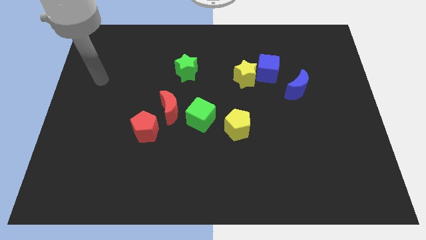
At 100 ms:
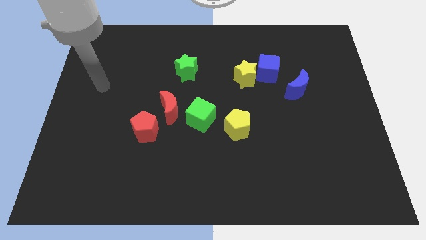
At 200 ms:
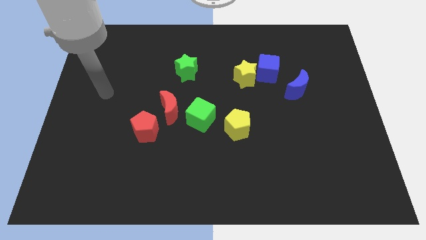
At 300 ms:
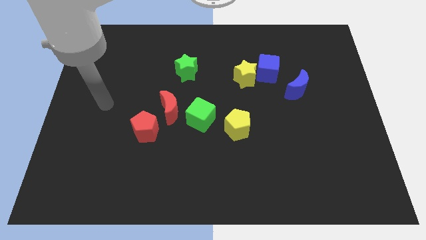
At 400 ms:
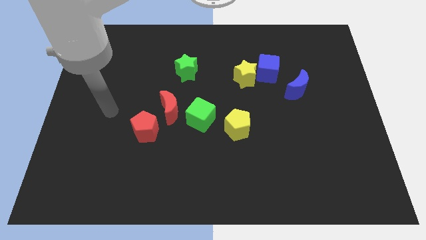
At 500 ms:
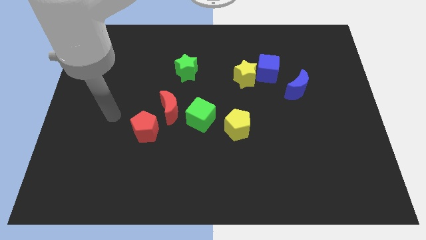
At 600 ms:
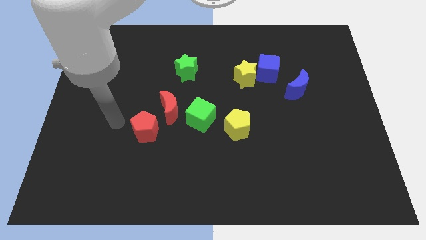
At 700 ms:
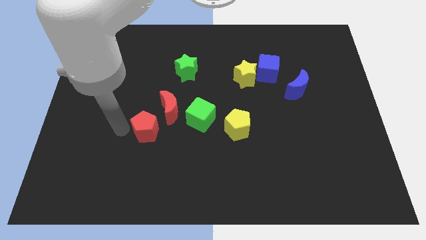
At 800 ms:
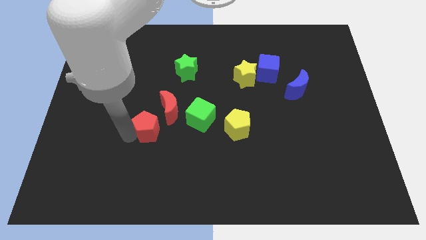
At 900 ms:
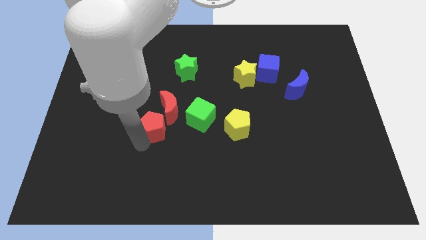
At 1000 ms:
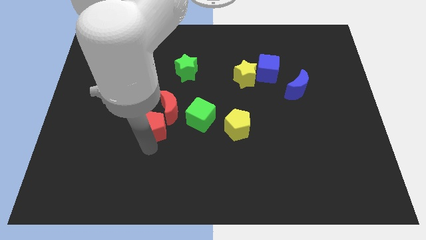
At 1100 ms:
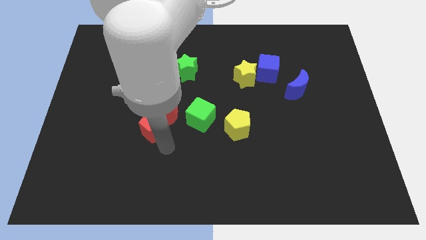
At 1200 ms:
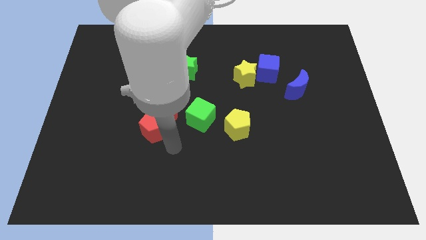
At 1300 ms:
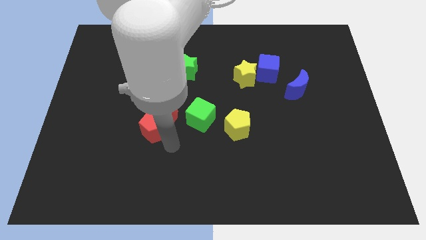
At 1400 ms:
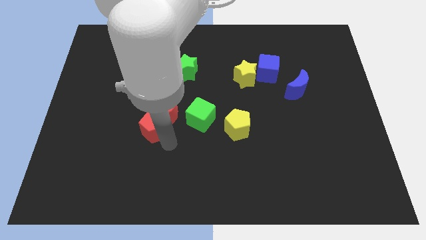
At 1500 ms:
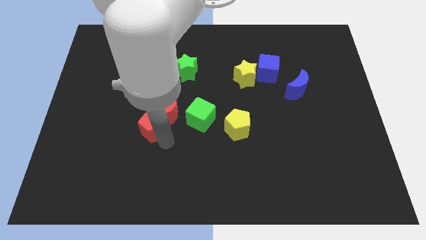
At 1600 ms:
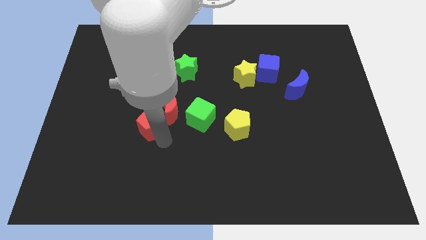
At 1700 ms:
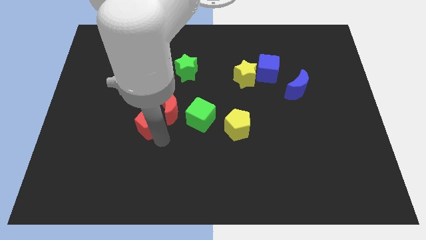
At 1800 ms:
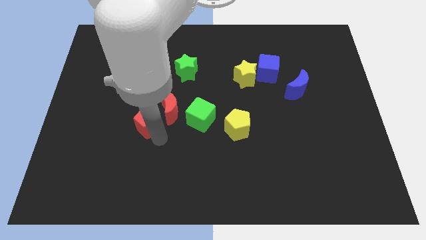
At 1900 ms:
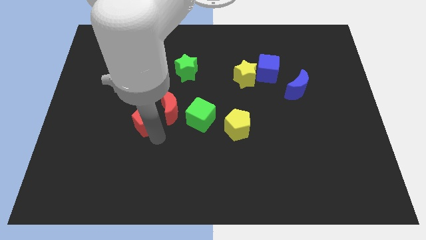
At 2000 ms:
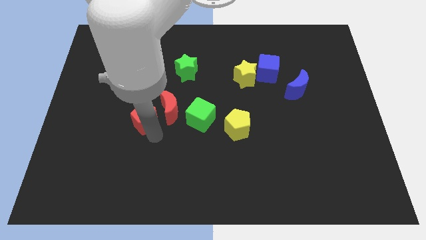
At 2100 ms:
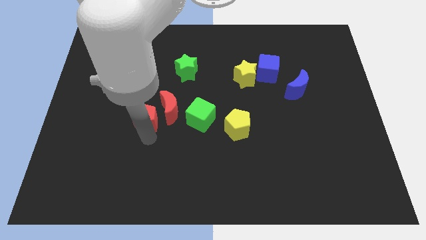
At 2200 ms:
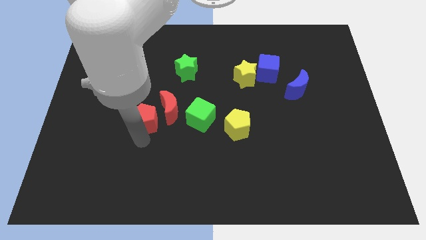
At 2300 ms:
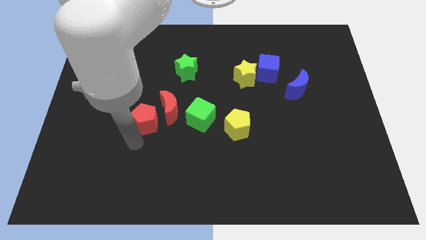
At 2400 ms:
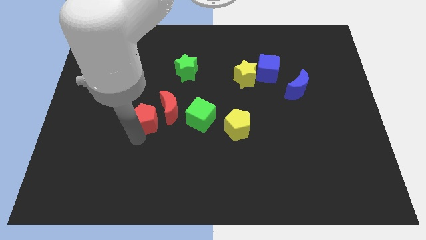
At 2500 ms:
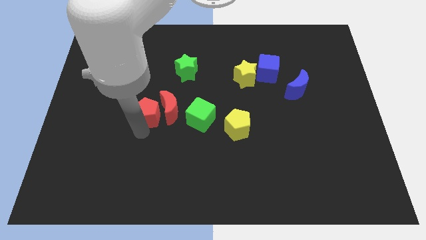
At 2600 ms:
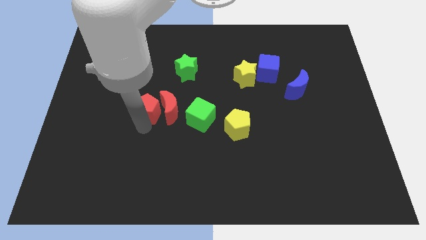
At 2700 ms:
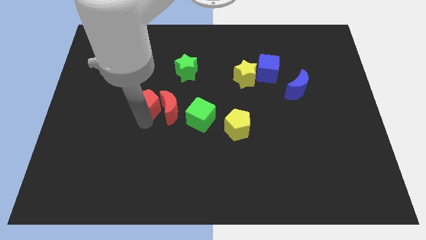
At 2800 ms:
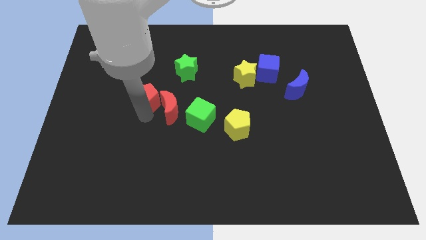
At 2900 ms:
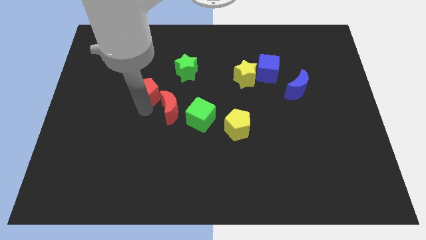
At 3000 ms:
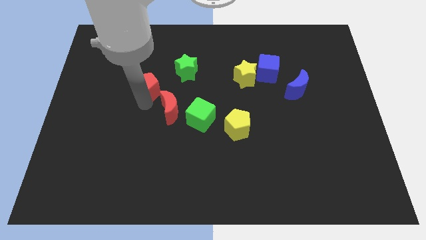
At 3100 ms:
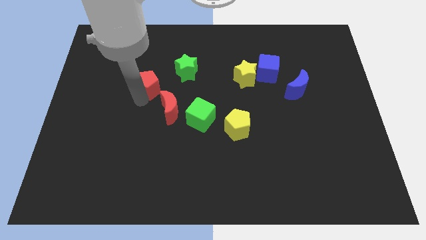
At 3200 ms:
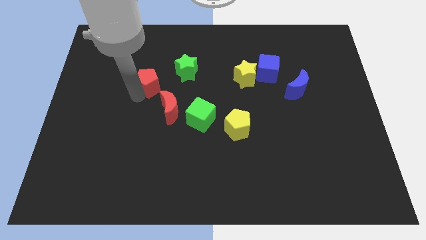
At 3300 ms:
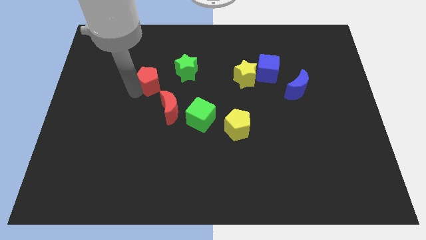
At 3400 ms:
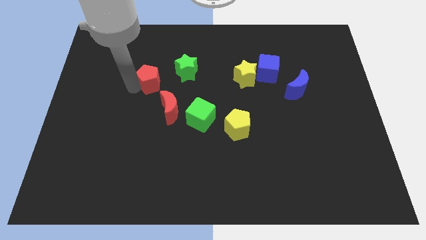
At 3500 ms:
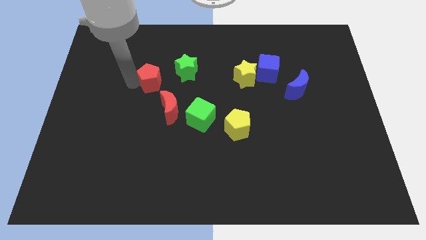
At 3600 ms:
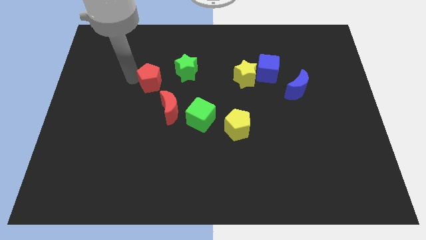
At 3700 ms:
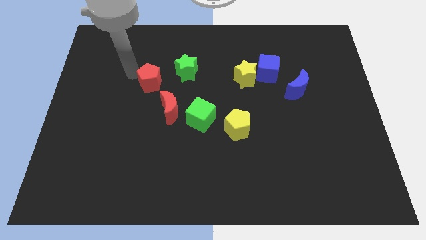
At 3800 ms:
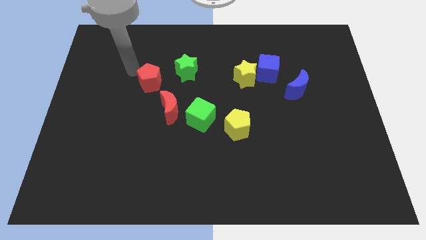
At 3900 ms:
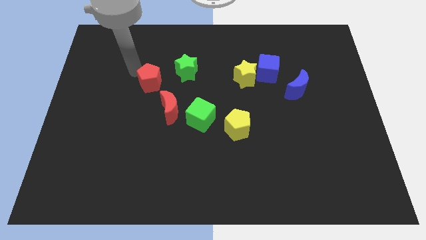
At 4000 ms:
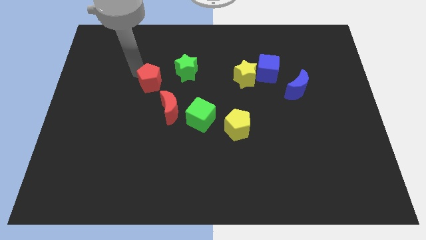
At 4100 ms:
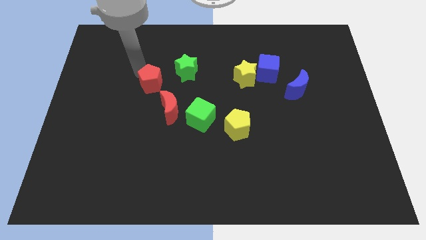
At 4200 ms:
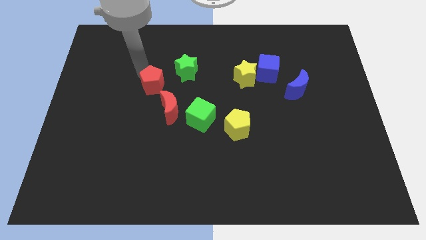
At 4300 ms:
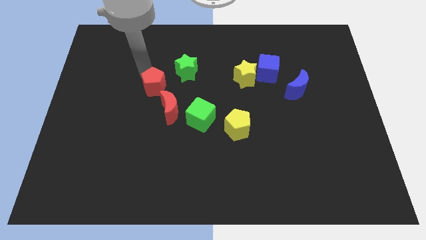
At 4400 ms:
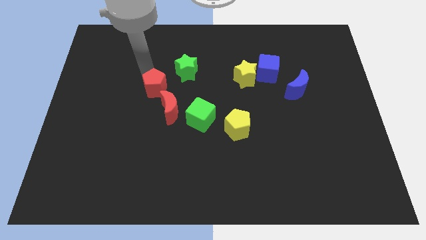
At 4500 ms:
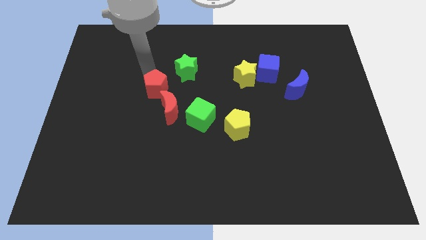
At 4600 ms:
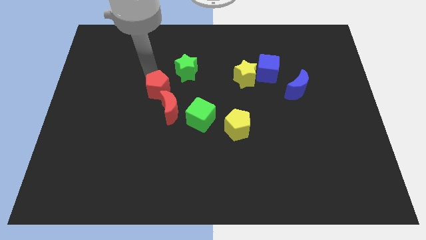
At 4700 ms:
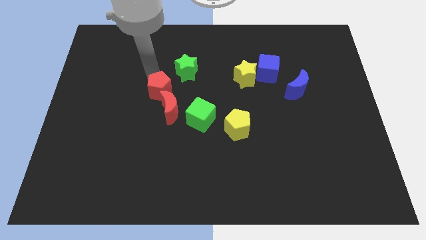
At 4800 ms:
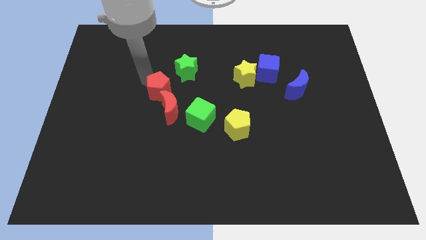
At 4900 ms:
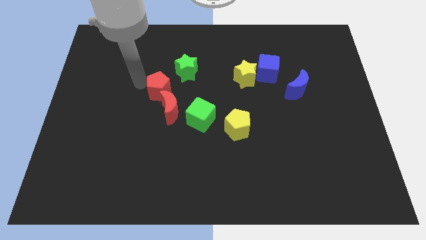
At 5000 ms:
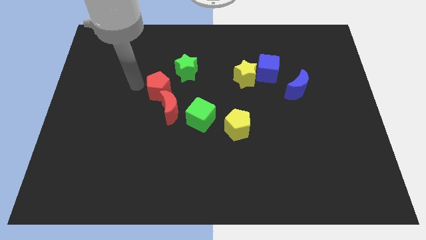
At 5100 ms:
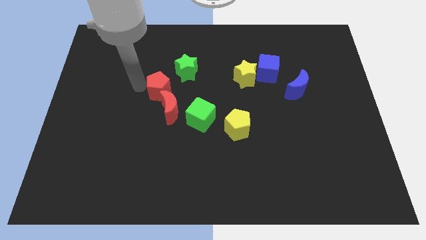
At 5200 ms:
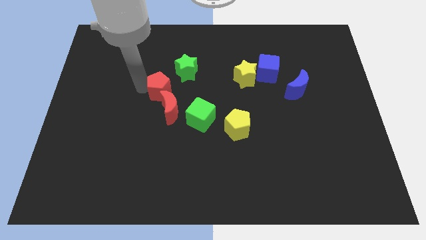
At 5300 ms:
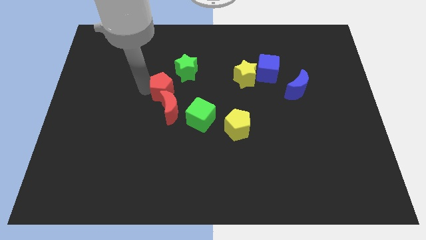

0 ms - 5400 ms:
put the red pentagon to the middle of the board

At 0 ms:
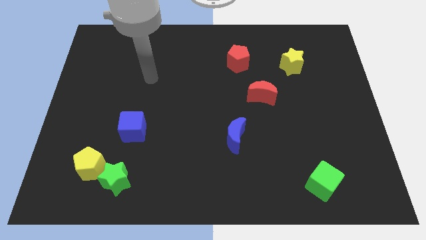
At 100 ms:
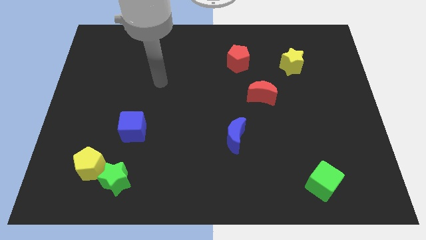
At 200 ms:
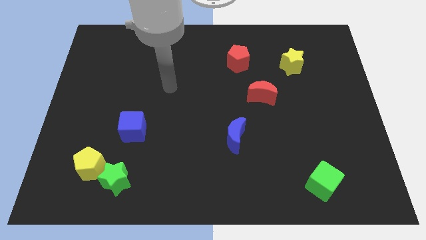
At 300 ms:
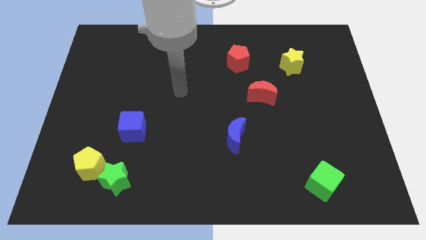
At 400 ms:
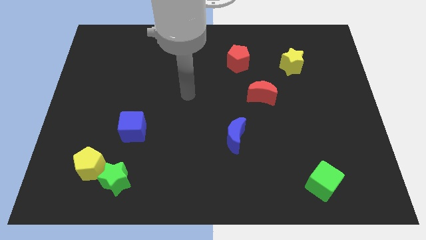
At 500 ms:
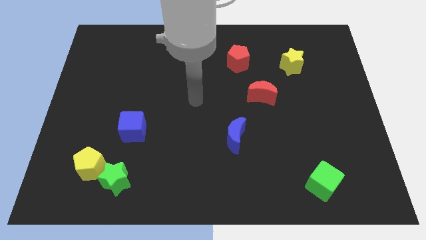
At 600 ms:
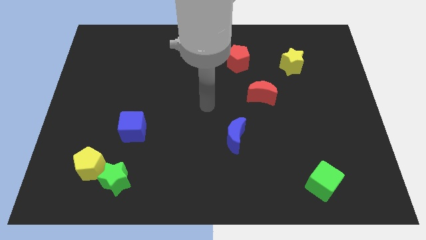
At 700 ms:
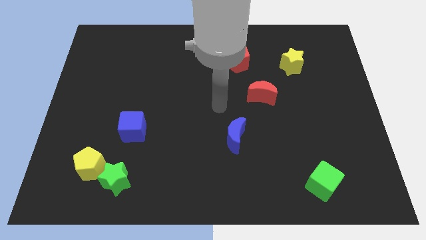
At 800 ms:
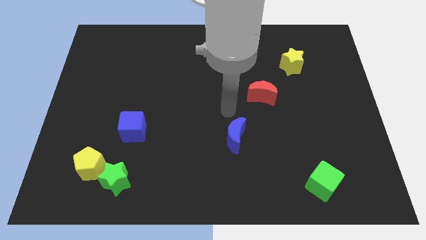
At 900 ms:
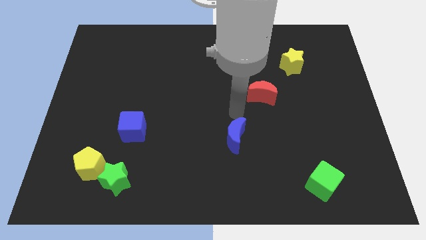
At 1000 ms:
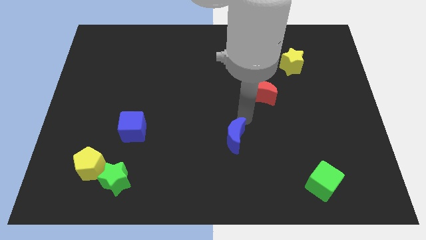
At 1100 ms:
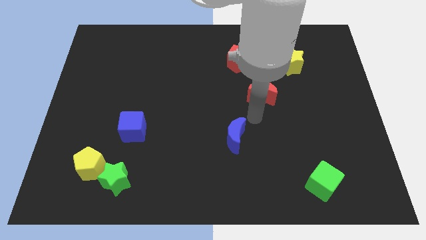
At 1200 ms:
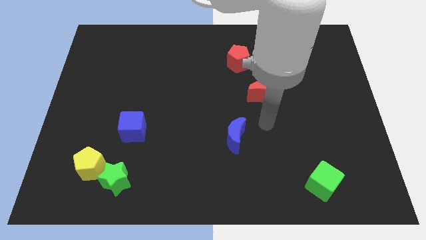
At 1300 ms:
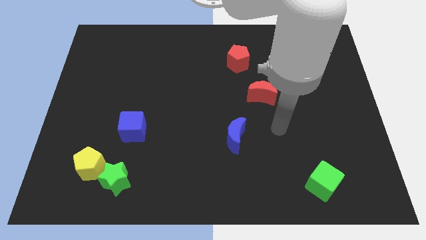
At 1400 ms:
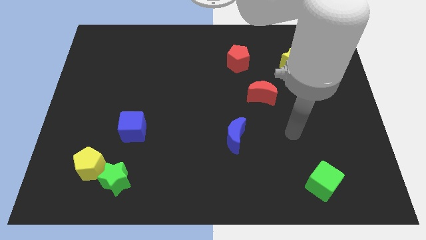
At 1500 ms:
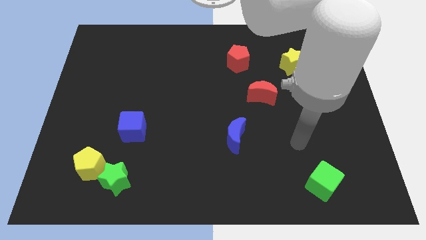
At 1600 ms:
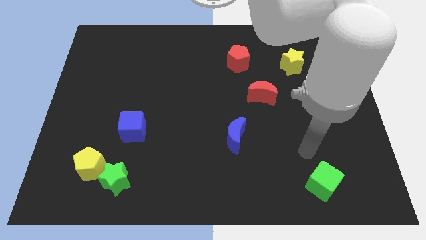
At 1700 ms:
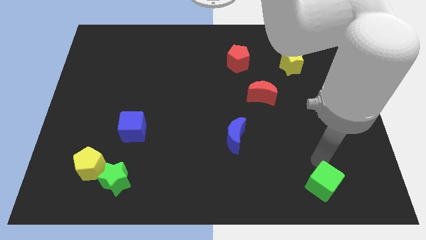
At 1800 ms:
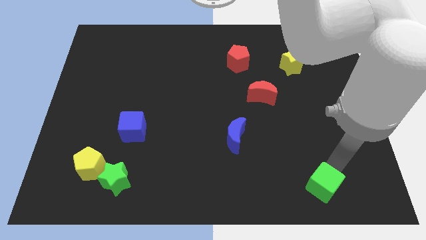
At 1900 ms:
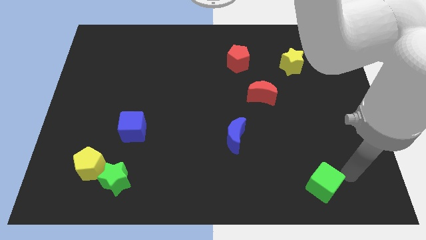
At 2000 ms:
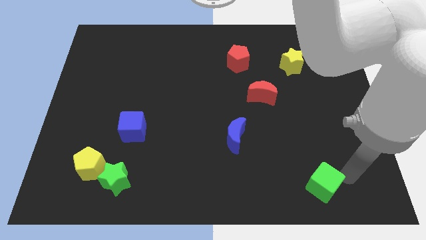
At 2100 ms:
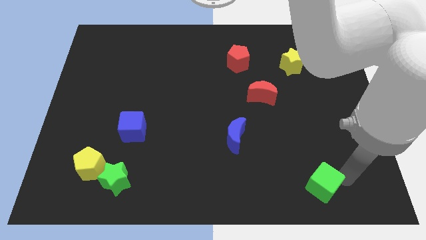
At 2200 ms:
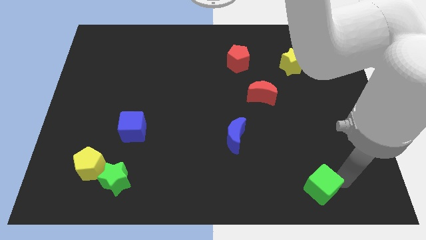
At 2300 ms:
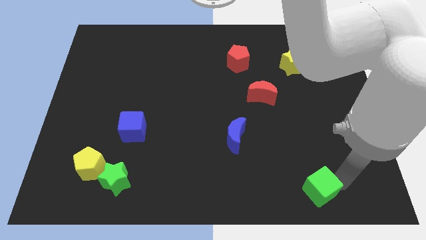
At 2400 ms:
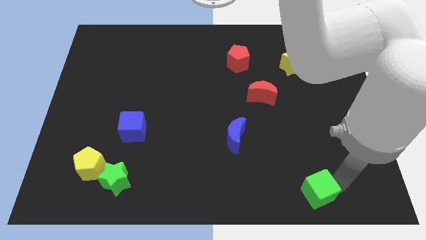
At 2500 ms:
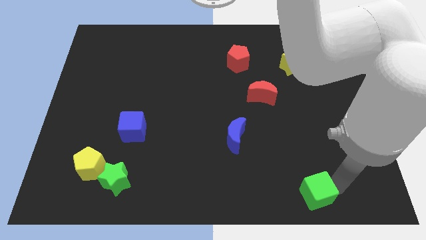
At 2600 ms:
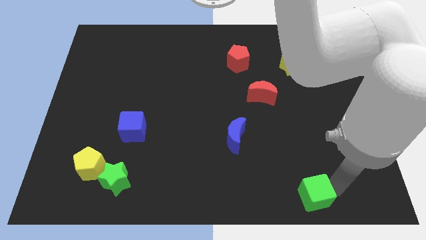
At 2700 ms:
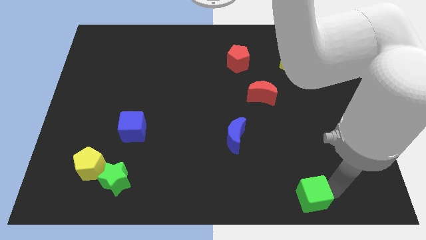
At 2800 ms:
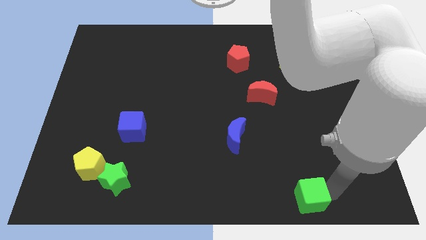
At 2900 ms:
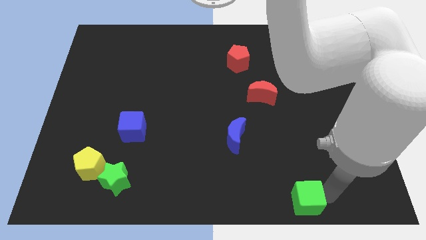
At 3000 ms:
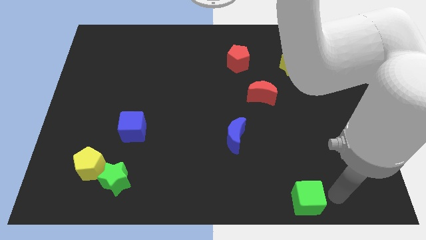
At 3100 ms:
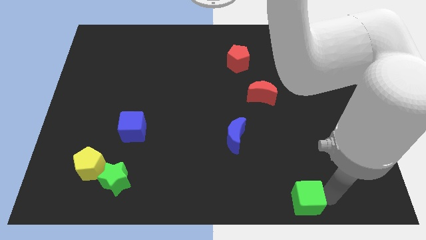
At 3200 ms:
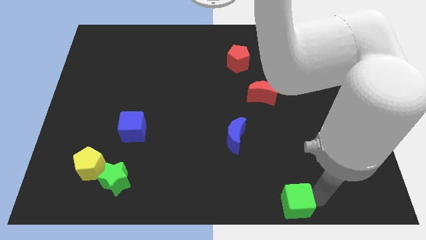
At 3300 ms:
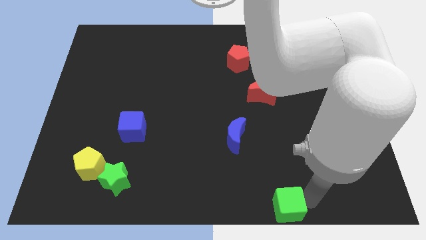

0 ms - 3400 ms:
push the green cube to the bottom
